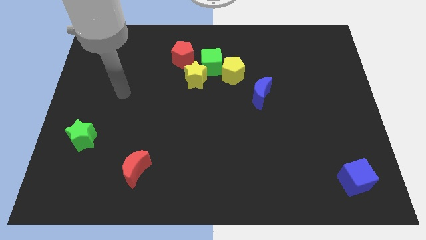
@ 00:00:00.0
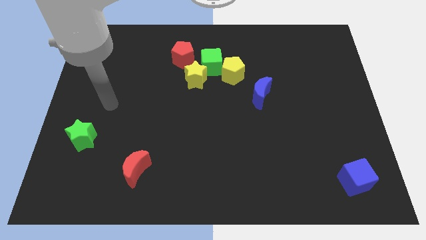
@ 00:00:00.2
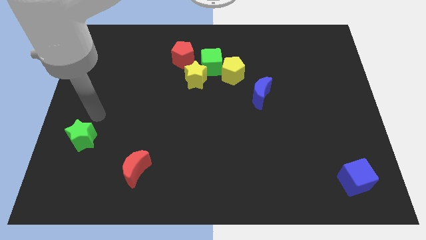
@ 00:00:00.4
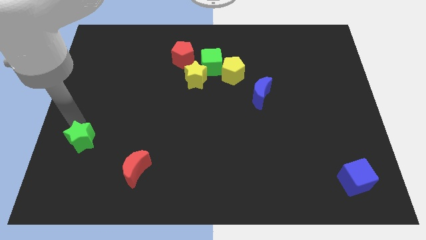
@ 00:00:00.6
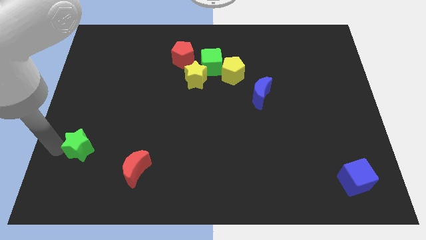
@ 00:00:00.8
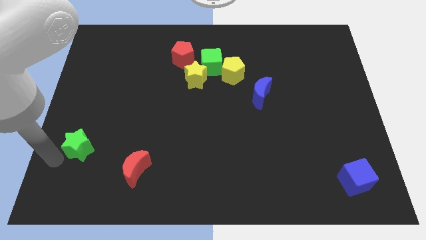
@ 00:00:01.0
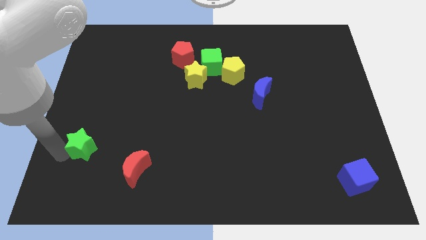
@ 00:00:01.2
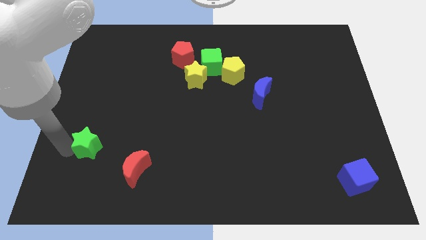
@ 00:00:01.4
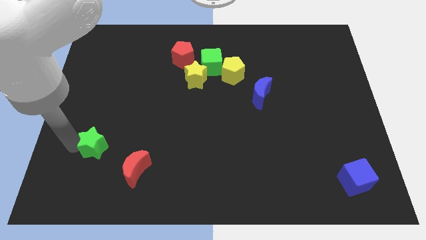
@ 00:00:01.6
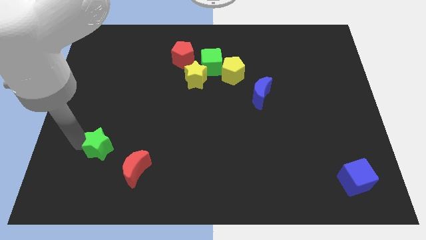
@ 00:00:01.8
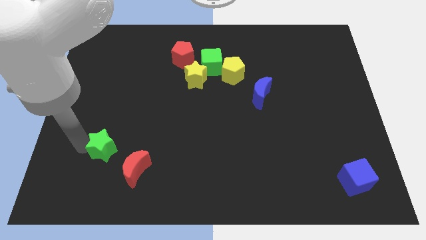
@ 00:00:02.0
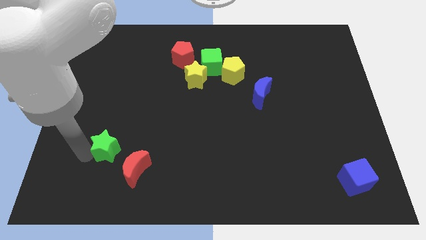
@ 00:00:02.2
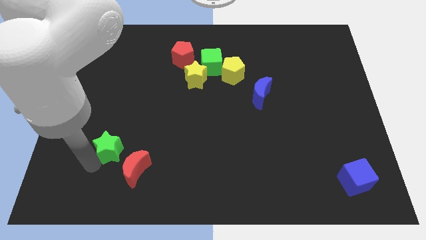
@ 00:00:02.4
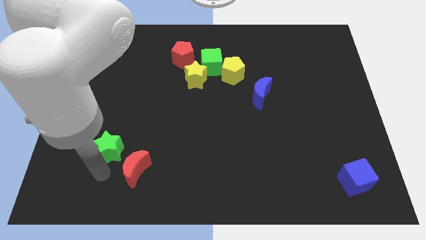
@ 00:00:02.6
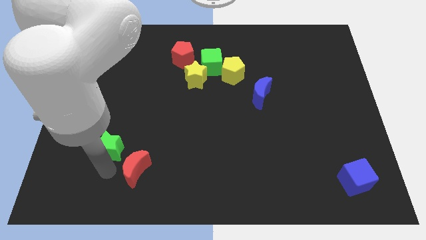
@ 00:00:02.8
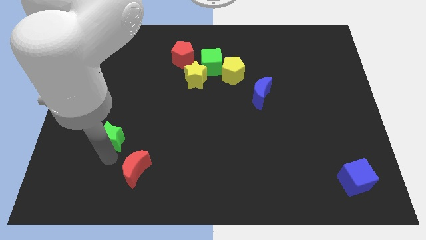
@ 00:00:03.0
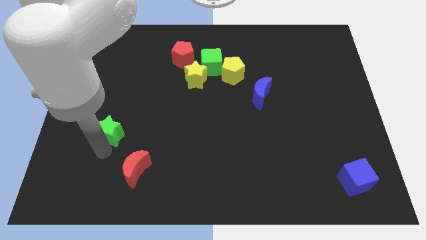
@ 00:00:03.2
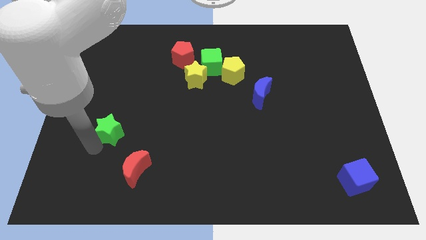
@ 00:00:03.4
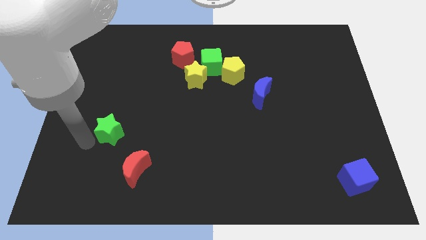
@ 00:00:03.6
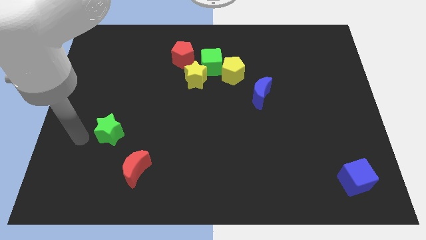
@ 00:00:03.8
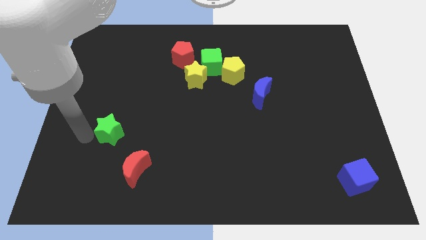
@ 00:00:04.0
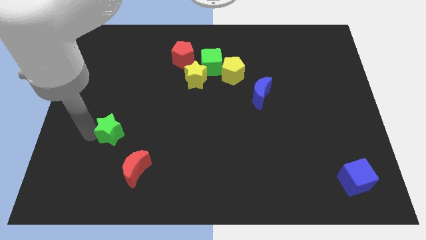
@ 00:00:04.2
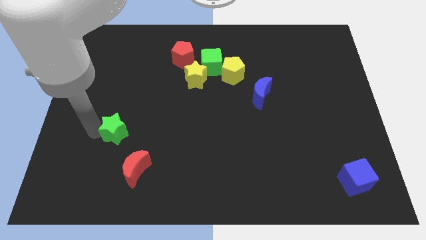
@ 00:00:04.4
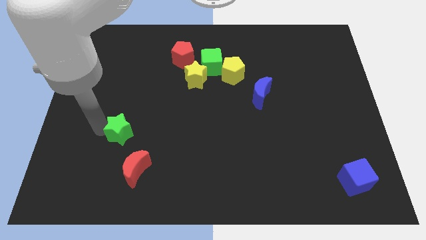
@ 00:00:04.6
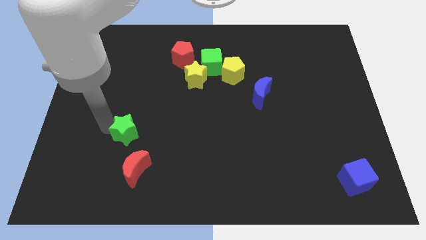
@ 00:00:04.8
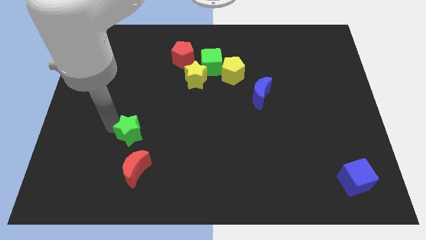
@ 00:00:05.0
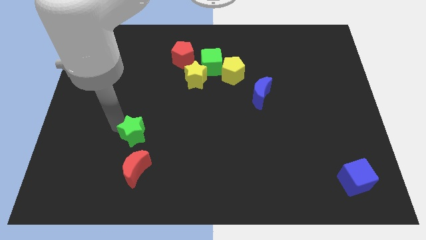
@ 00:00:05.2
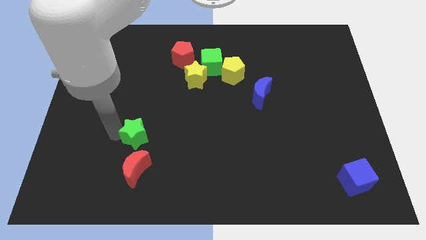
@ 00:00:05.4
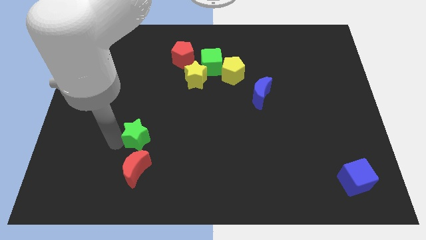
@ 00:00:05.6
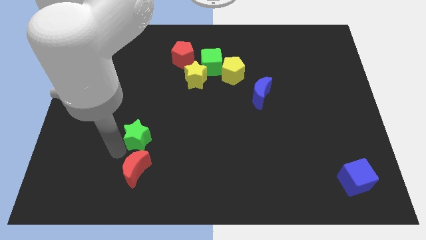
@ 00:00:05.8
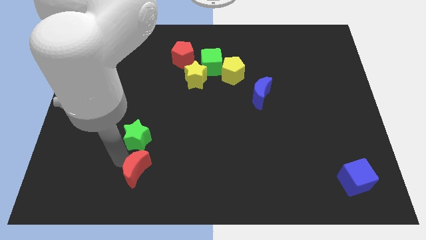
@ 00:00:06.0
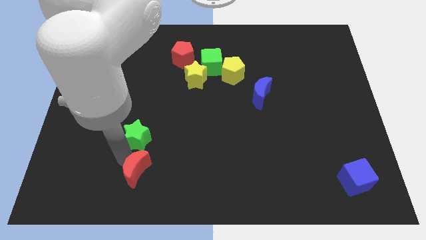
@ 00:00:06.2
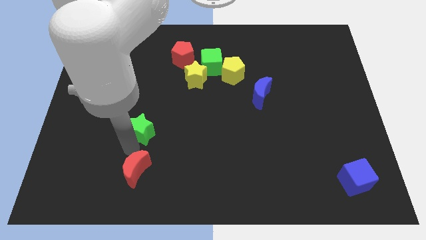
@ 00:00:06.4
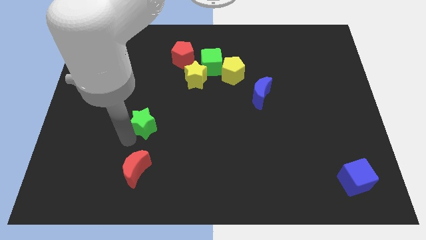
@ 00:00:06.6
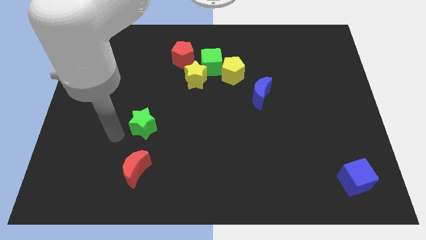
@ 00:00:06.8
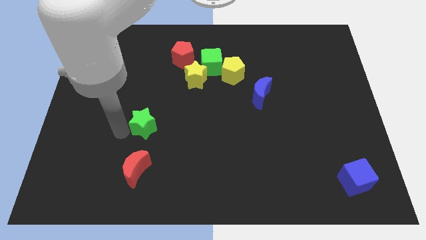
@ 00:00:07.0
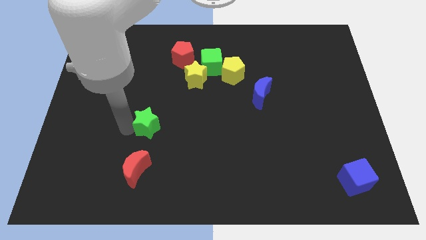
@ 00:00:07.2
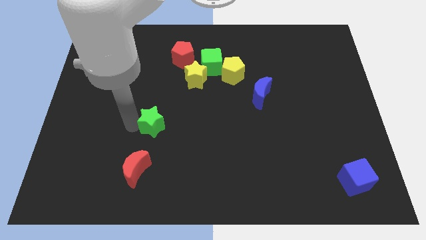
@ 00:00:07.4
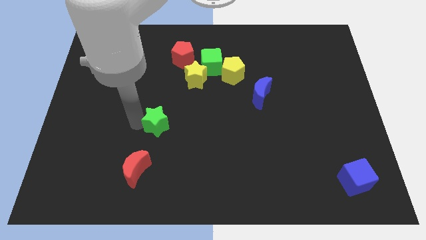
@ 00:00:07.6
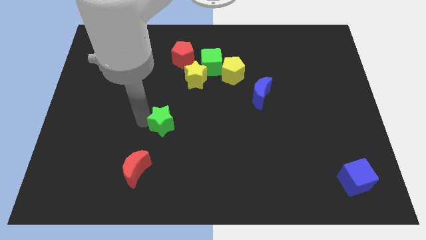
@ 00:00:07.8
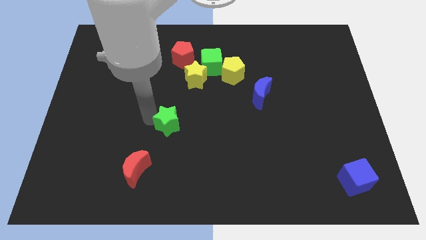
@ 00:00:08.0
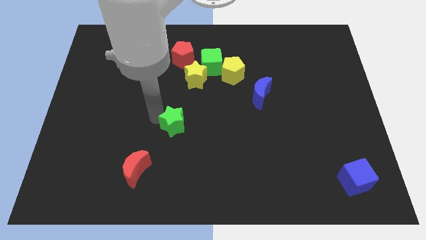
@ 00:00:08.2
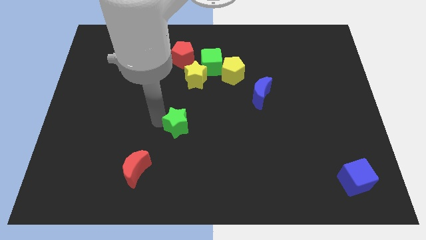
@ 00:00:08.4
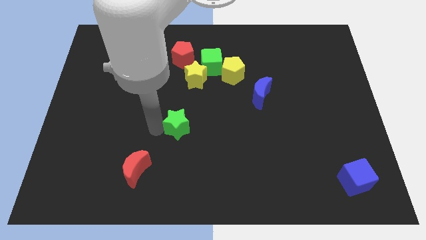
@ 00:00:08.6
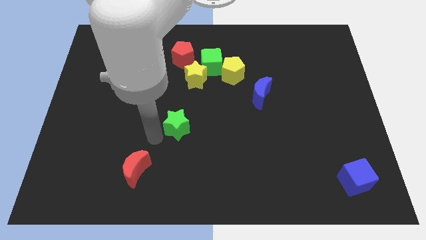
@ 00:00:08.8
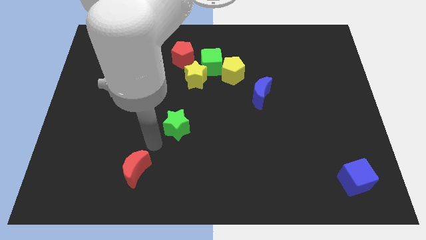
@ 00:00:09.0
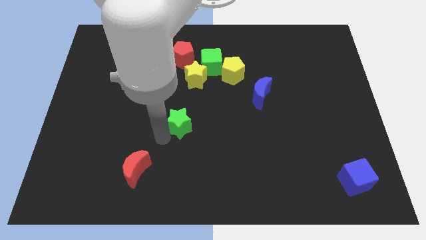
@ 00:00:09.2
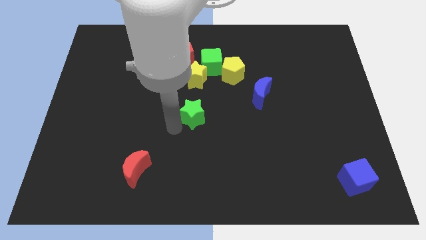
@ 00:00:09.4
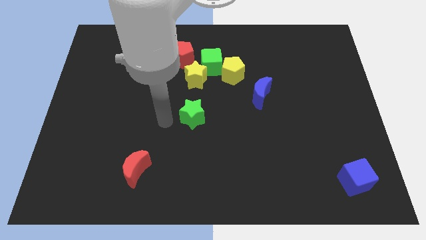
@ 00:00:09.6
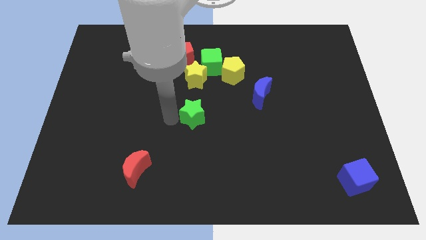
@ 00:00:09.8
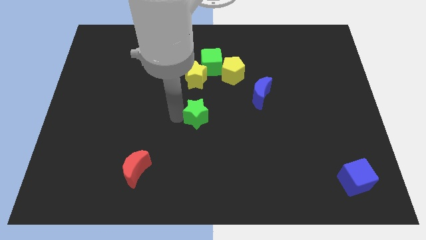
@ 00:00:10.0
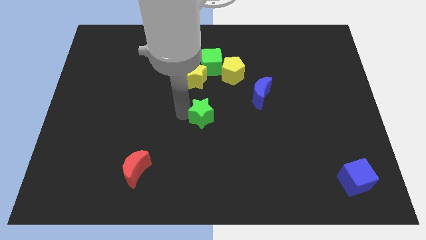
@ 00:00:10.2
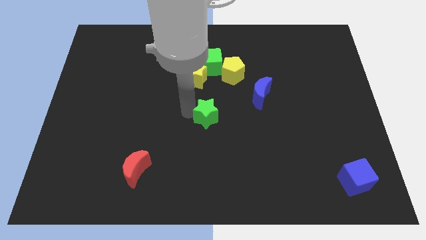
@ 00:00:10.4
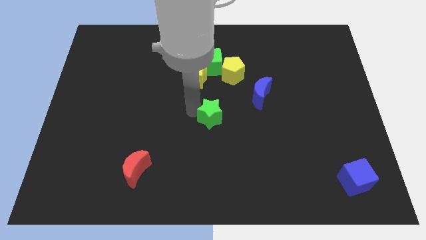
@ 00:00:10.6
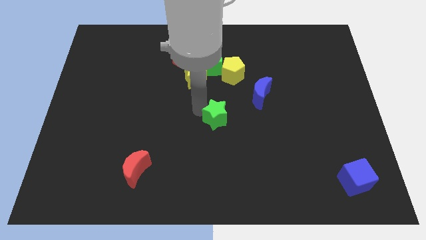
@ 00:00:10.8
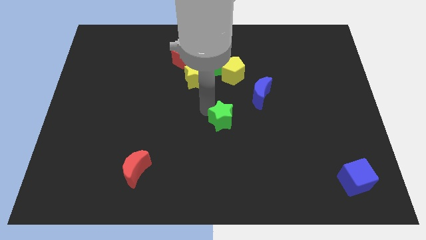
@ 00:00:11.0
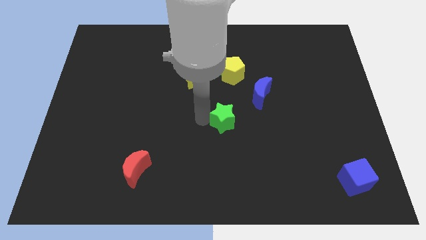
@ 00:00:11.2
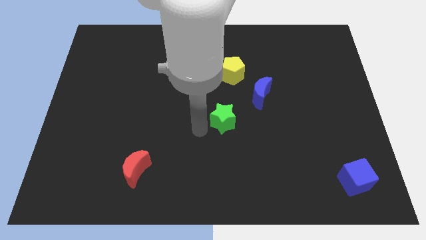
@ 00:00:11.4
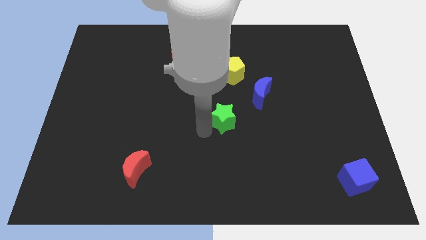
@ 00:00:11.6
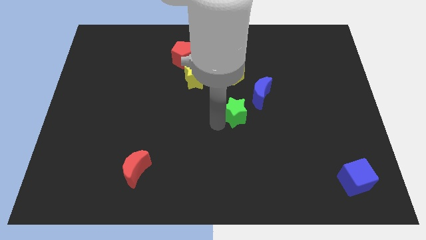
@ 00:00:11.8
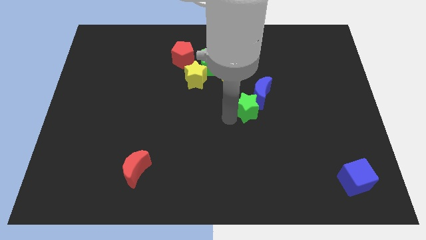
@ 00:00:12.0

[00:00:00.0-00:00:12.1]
move the green star next to the blue moon
